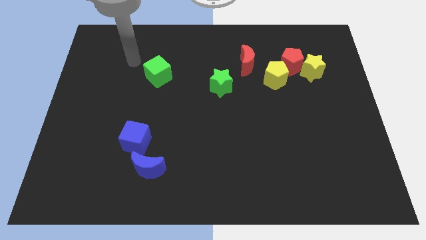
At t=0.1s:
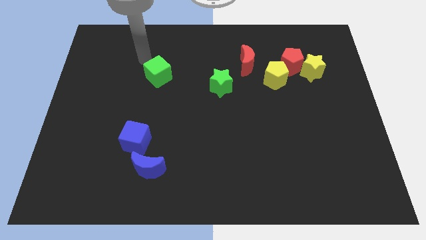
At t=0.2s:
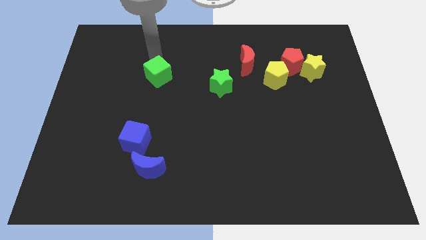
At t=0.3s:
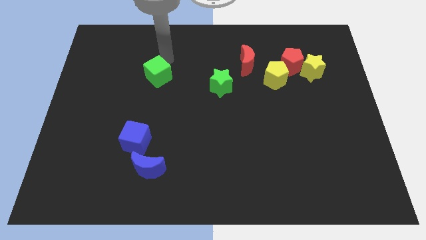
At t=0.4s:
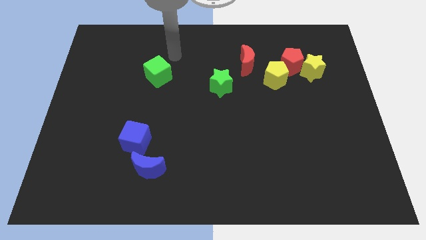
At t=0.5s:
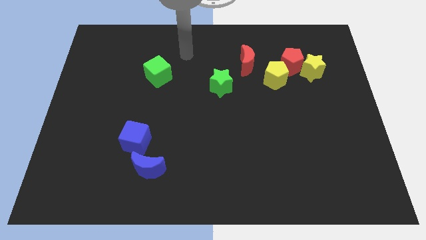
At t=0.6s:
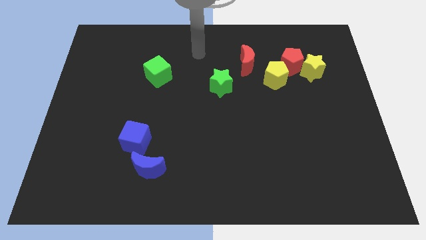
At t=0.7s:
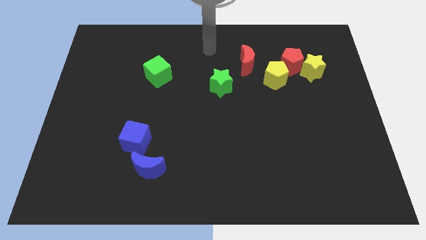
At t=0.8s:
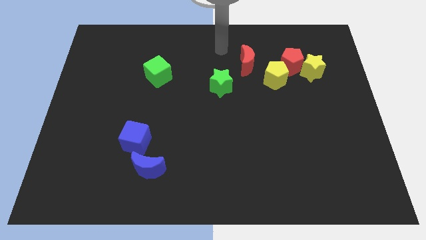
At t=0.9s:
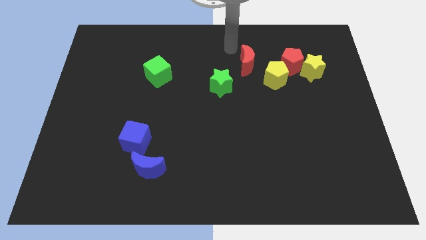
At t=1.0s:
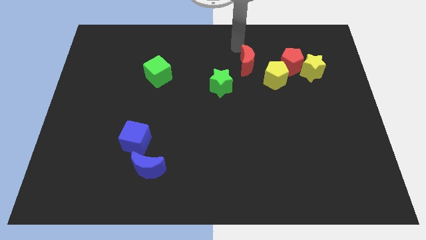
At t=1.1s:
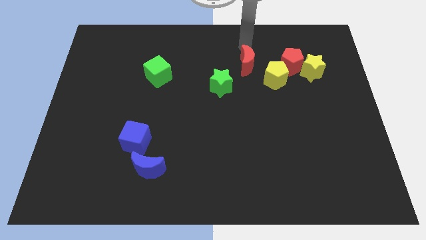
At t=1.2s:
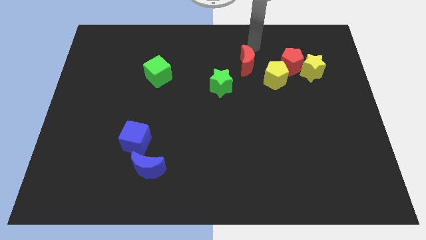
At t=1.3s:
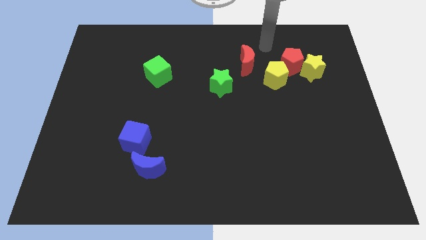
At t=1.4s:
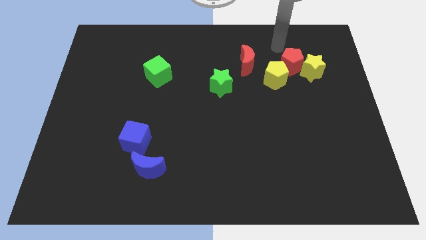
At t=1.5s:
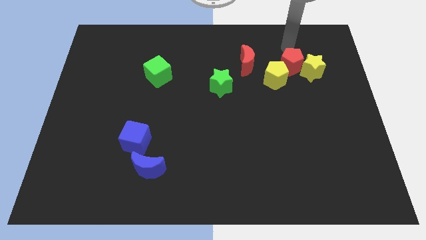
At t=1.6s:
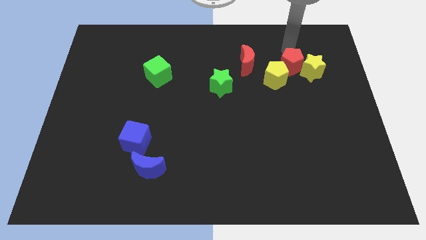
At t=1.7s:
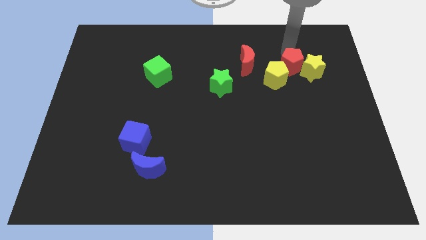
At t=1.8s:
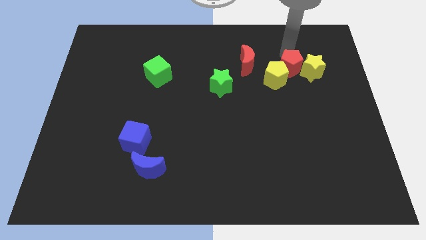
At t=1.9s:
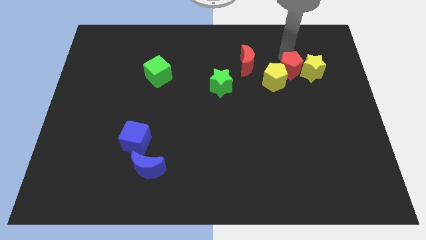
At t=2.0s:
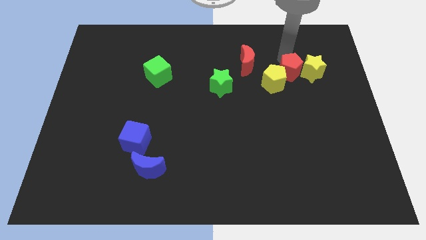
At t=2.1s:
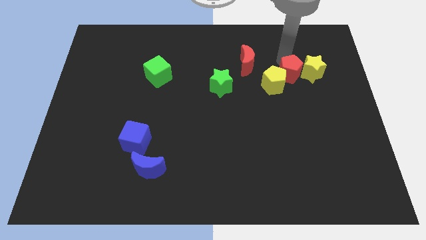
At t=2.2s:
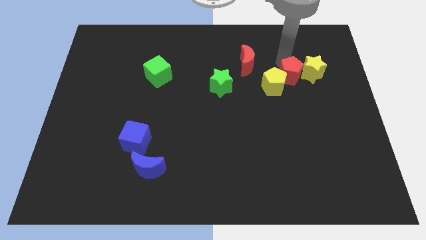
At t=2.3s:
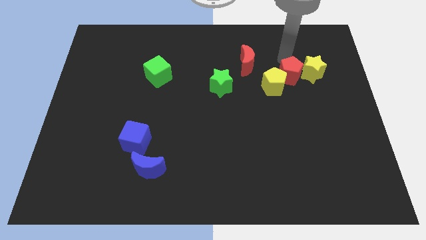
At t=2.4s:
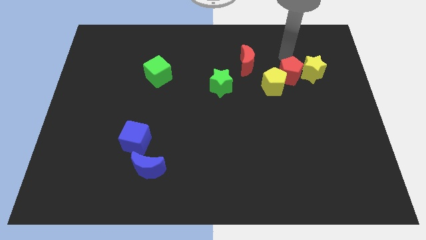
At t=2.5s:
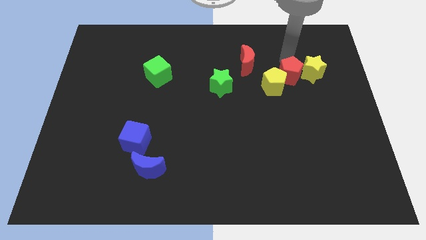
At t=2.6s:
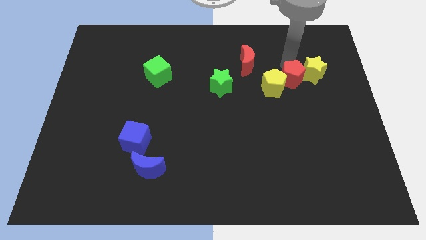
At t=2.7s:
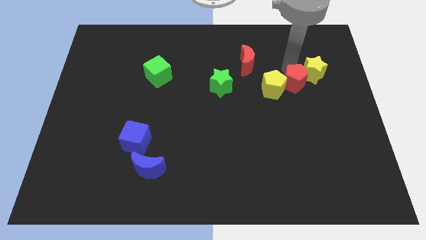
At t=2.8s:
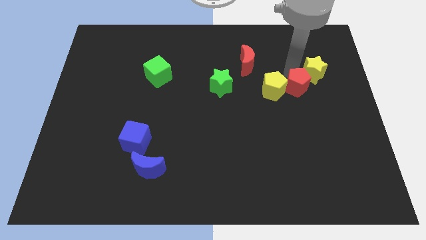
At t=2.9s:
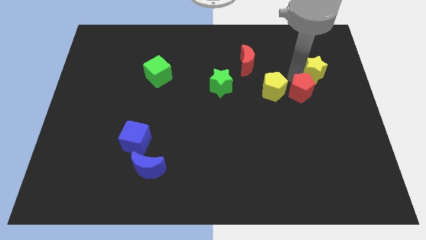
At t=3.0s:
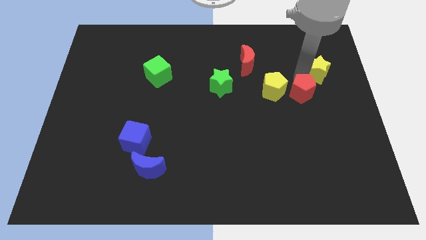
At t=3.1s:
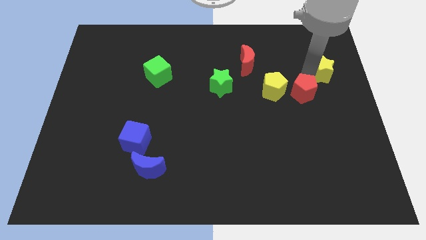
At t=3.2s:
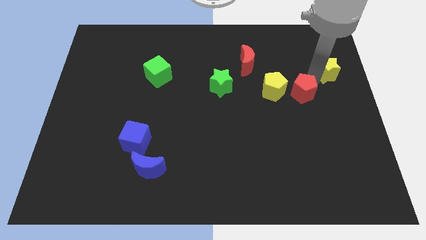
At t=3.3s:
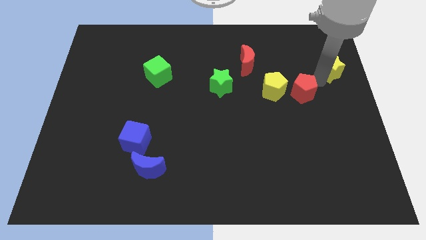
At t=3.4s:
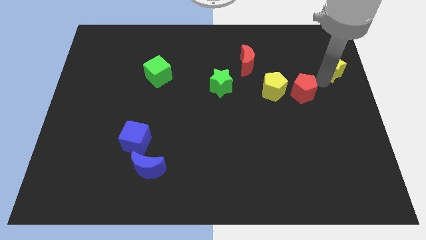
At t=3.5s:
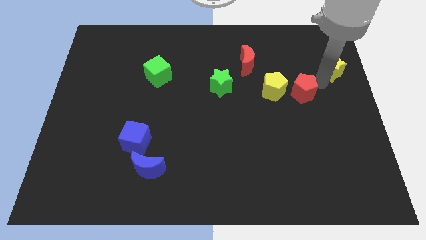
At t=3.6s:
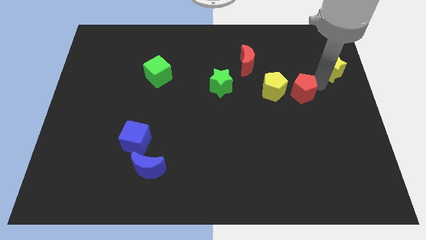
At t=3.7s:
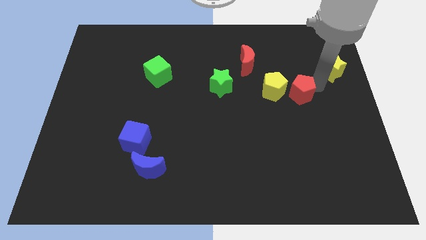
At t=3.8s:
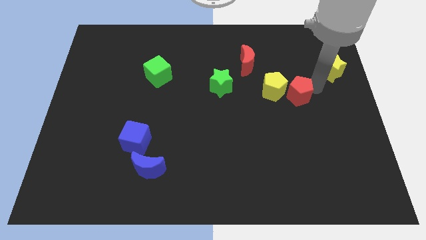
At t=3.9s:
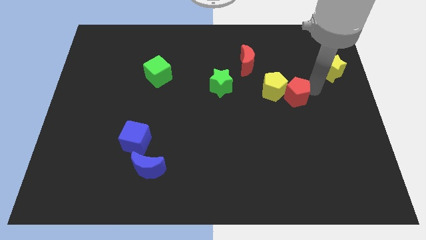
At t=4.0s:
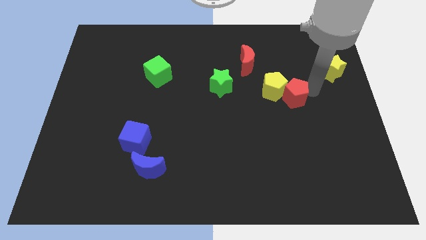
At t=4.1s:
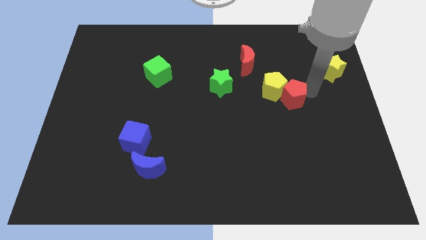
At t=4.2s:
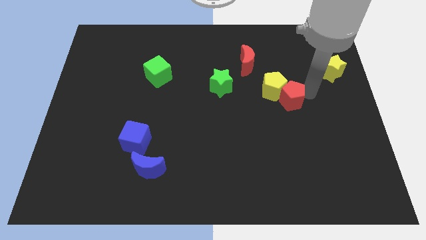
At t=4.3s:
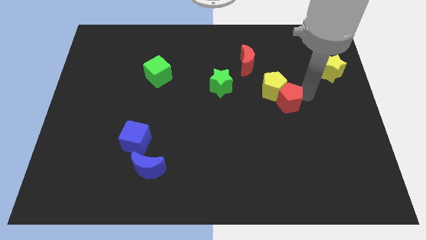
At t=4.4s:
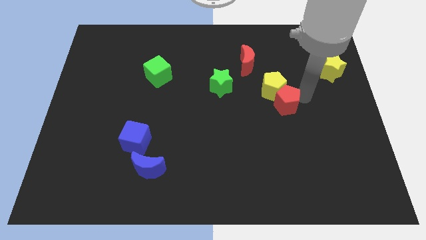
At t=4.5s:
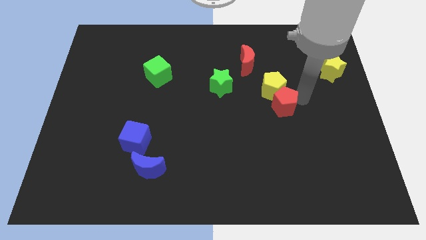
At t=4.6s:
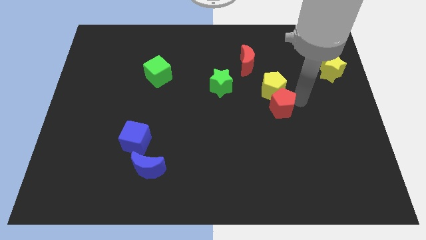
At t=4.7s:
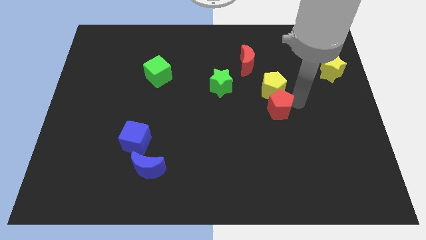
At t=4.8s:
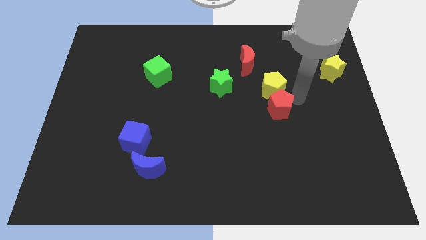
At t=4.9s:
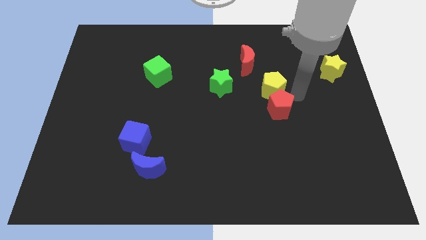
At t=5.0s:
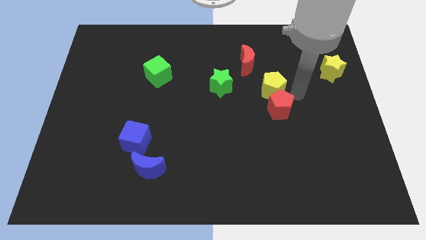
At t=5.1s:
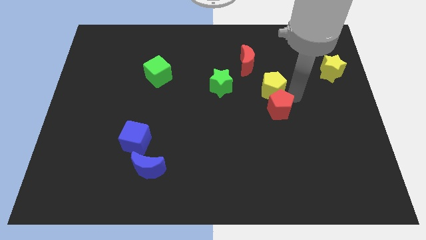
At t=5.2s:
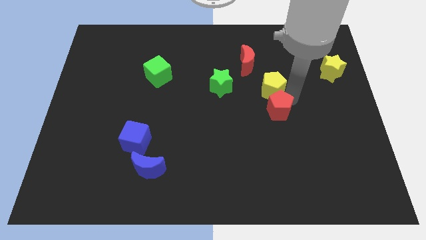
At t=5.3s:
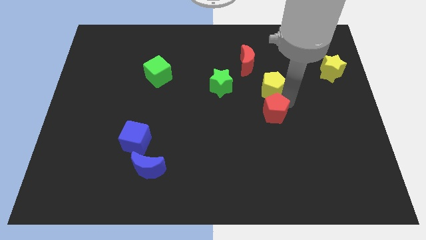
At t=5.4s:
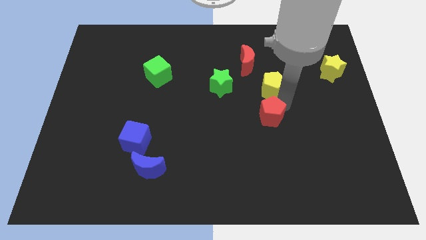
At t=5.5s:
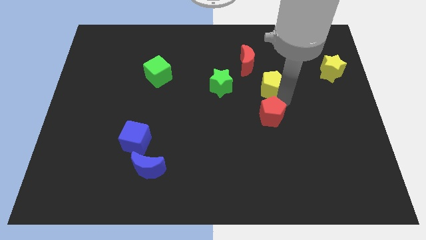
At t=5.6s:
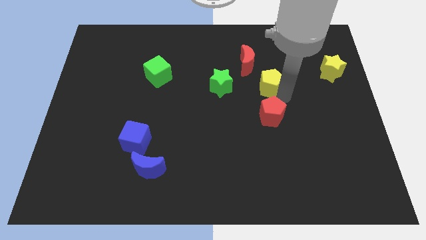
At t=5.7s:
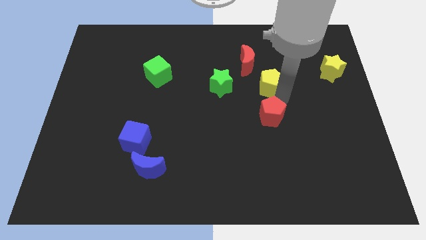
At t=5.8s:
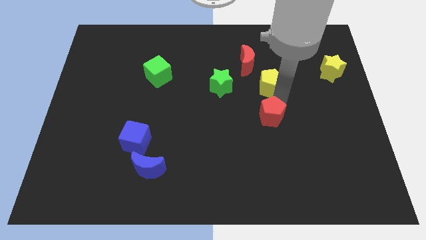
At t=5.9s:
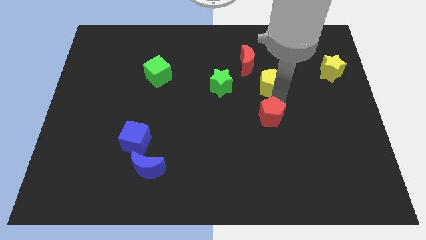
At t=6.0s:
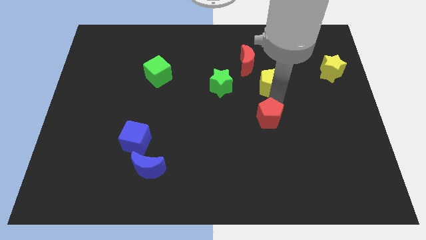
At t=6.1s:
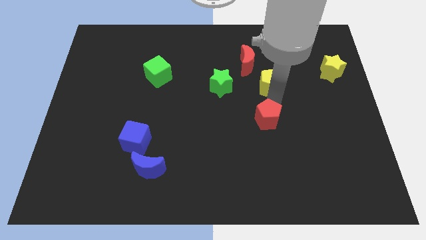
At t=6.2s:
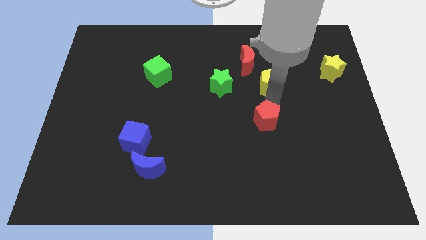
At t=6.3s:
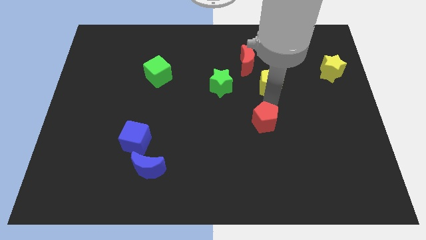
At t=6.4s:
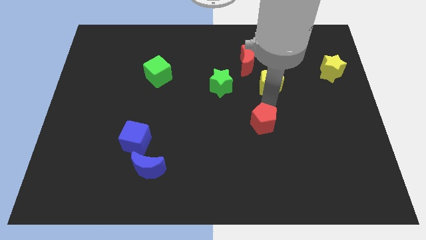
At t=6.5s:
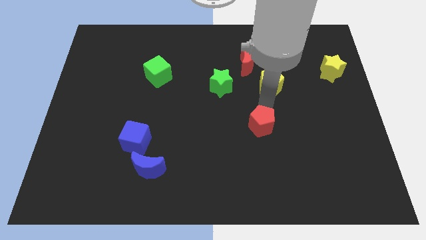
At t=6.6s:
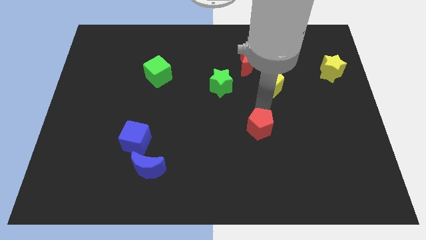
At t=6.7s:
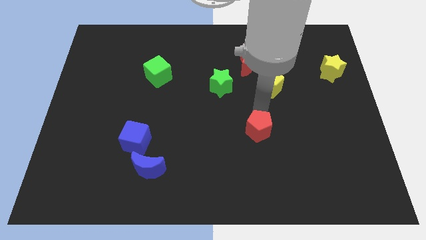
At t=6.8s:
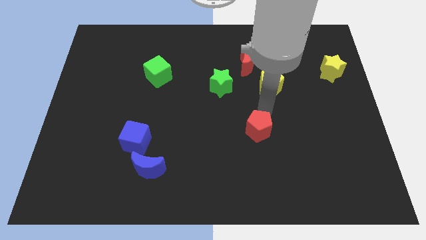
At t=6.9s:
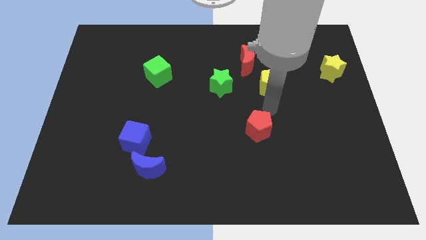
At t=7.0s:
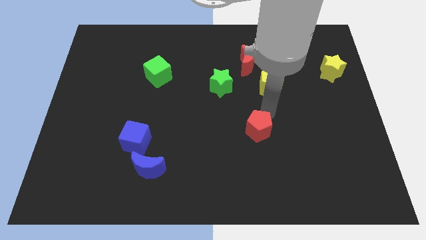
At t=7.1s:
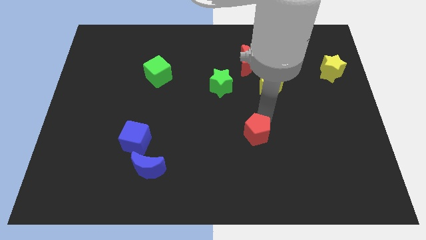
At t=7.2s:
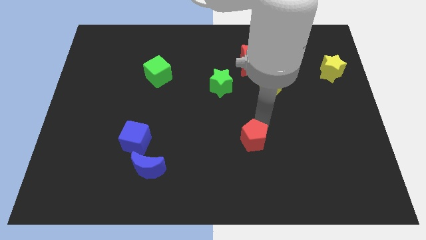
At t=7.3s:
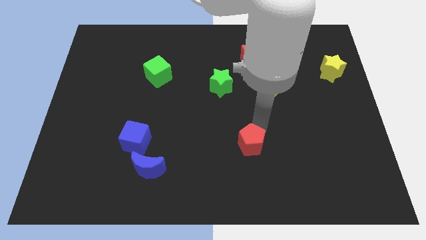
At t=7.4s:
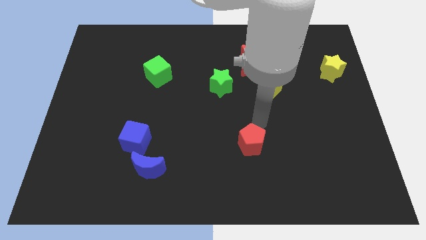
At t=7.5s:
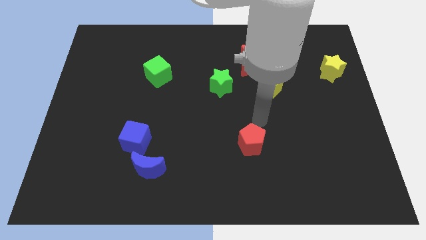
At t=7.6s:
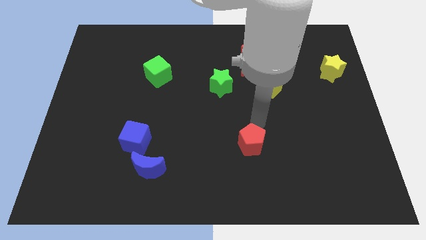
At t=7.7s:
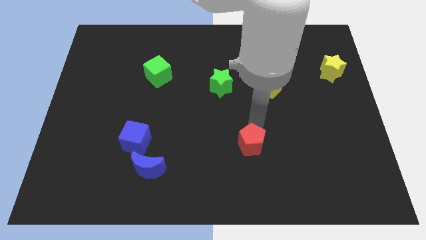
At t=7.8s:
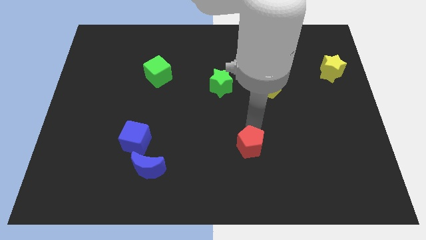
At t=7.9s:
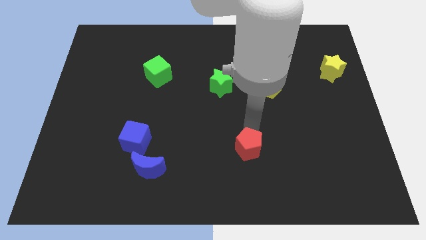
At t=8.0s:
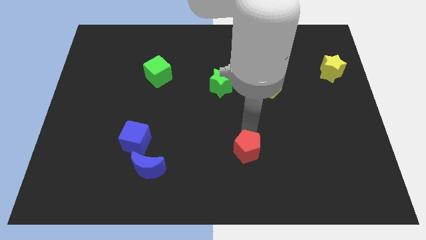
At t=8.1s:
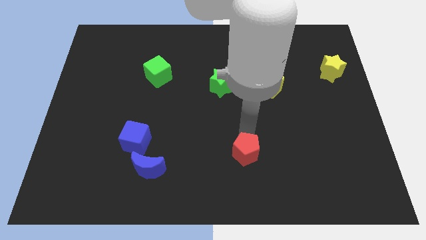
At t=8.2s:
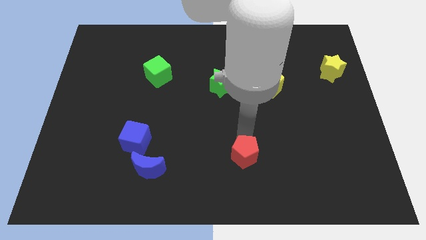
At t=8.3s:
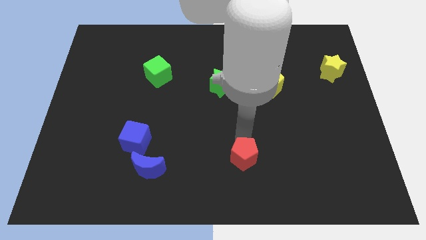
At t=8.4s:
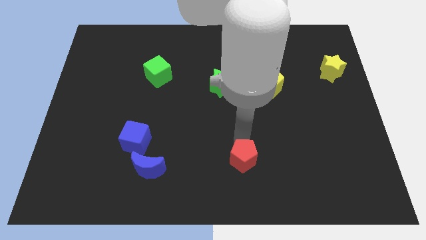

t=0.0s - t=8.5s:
put the red pentagon to the bottom side
